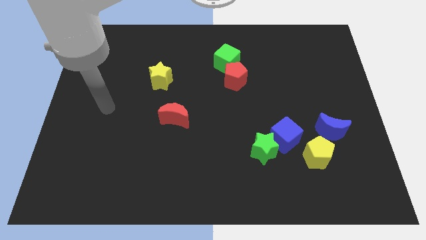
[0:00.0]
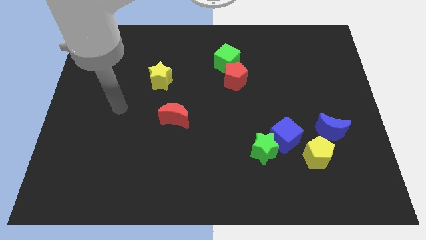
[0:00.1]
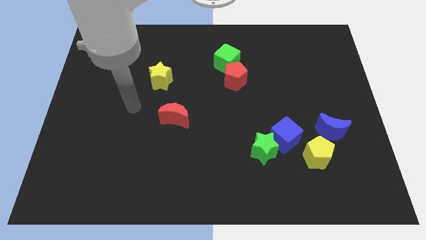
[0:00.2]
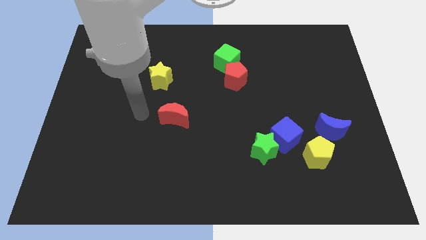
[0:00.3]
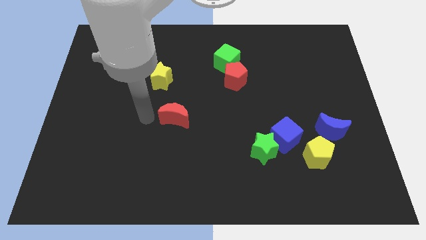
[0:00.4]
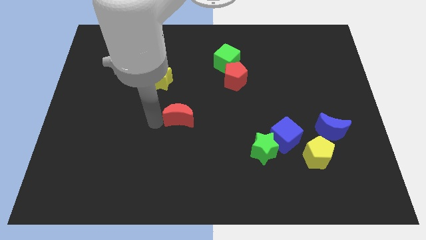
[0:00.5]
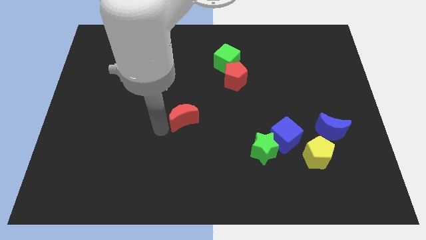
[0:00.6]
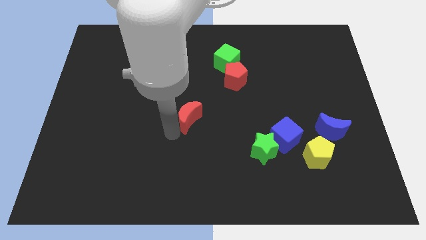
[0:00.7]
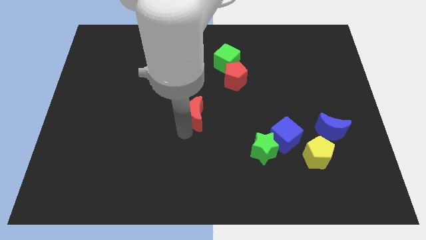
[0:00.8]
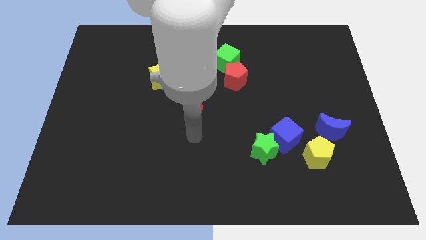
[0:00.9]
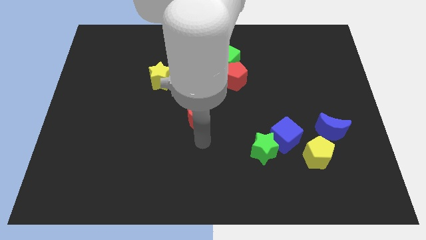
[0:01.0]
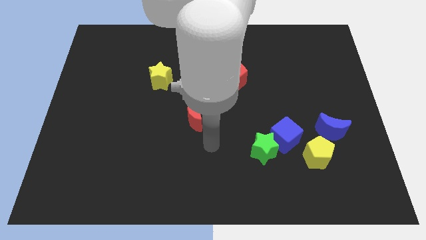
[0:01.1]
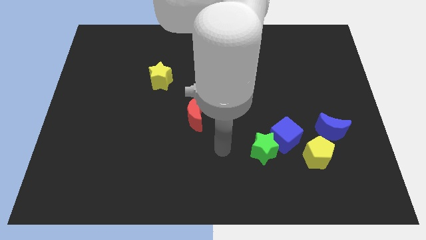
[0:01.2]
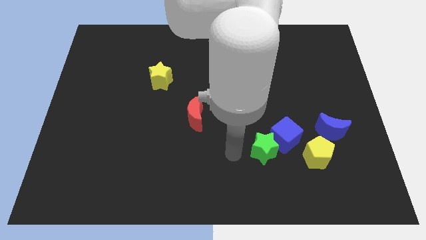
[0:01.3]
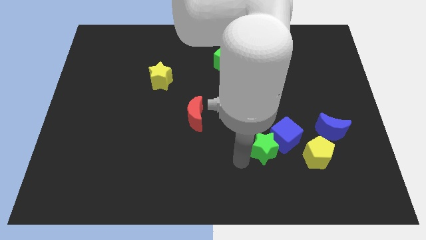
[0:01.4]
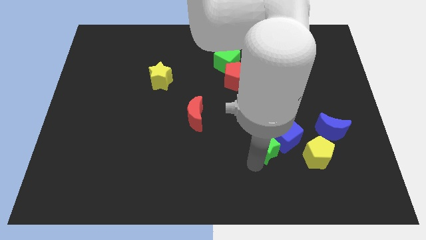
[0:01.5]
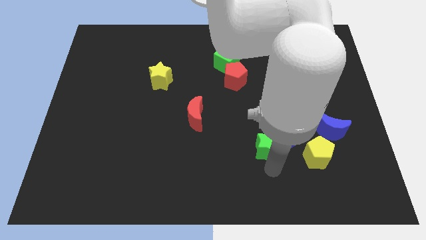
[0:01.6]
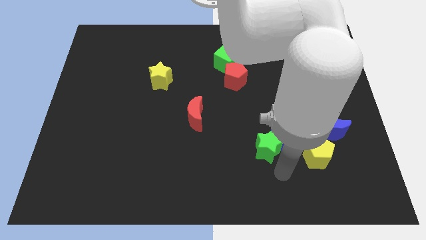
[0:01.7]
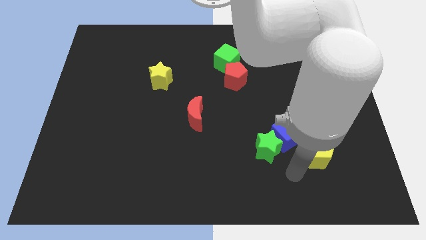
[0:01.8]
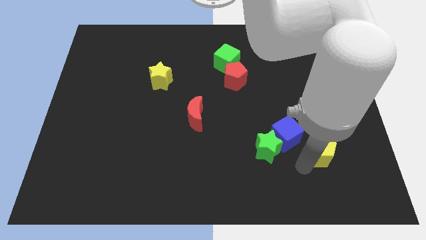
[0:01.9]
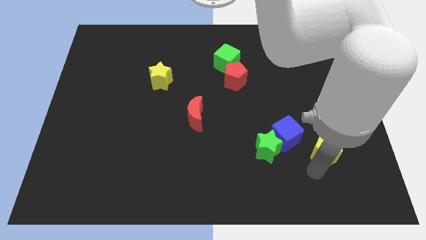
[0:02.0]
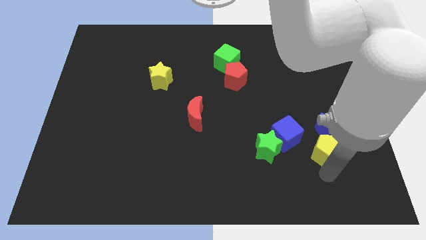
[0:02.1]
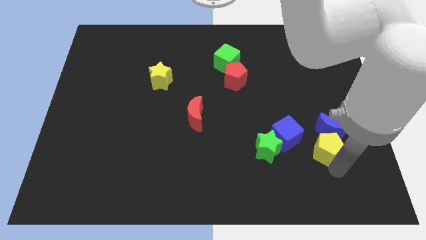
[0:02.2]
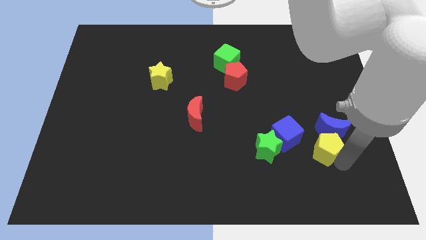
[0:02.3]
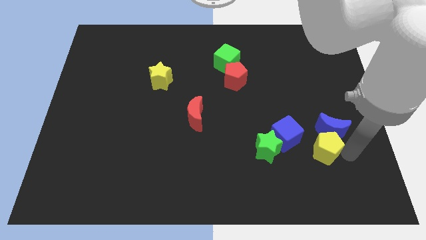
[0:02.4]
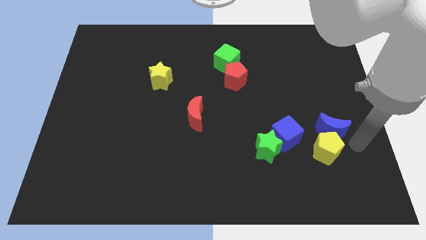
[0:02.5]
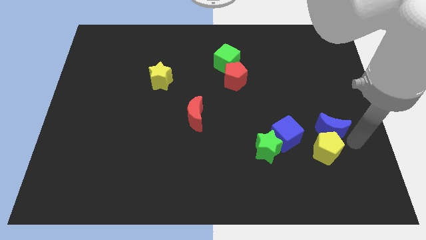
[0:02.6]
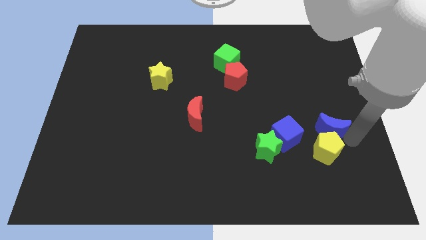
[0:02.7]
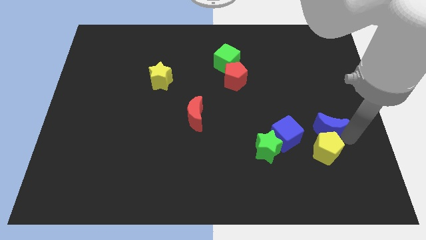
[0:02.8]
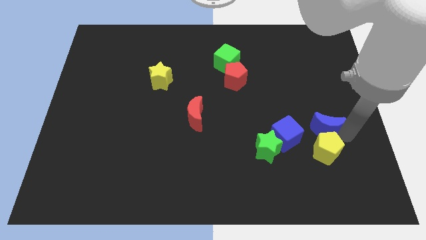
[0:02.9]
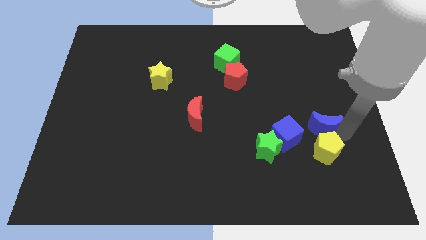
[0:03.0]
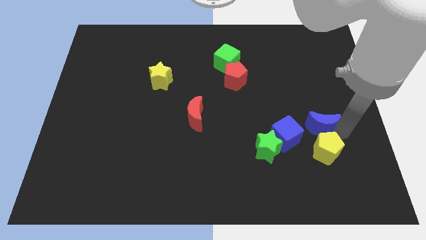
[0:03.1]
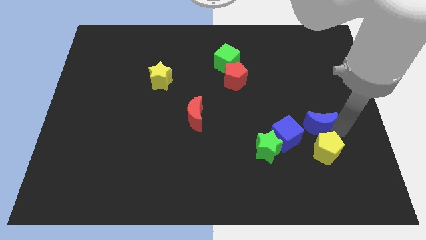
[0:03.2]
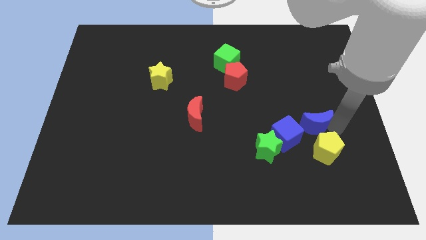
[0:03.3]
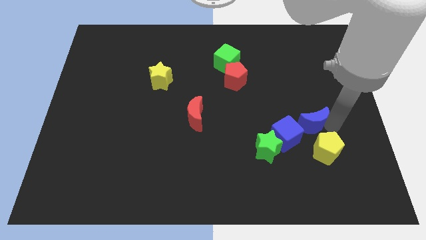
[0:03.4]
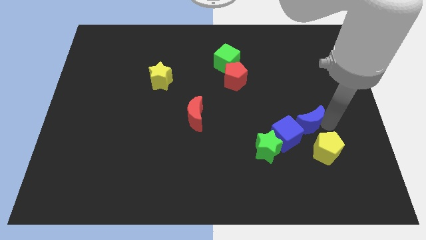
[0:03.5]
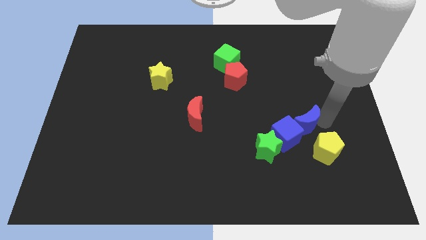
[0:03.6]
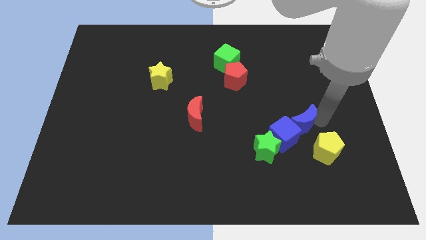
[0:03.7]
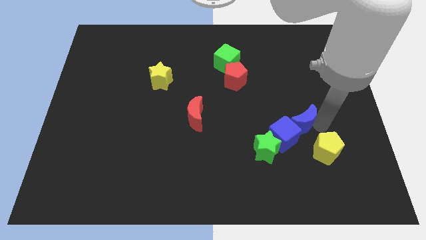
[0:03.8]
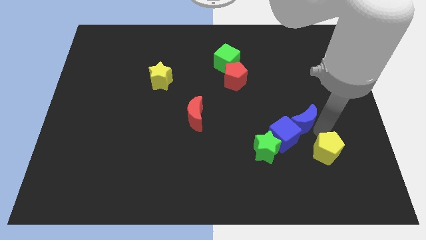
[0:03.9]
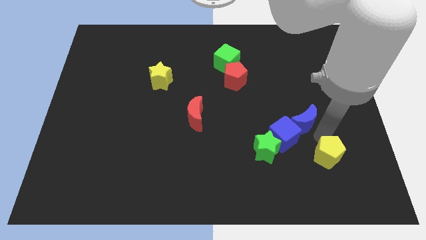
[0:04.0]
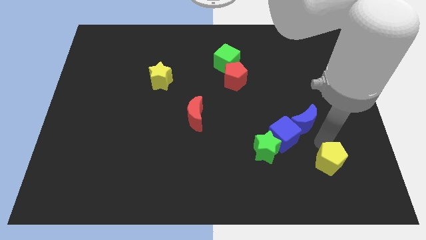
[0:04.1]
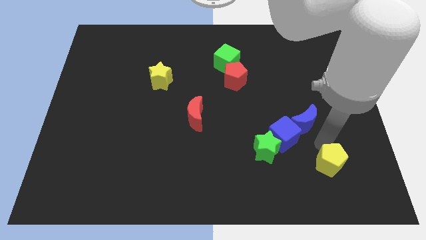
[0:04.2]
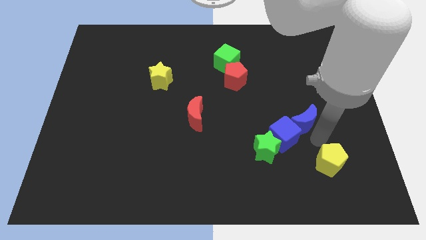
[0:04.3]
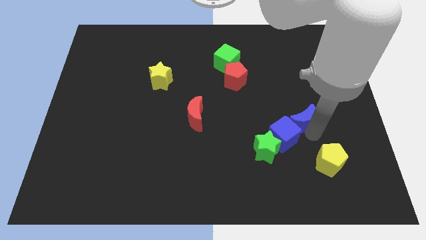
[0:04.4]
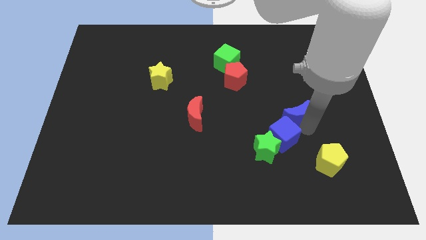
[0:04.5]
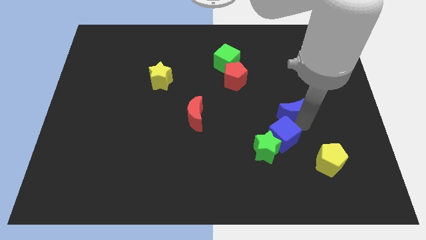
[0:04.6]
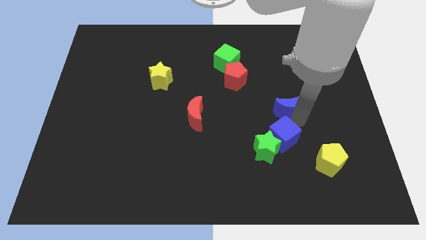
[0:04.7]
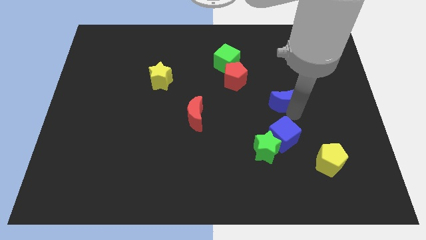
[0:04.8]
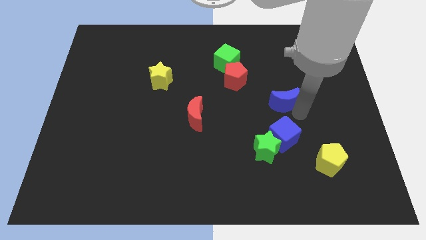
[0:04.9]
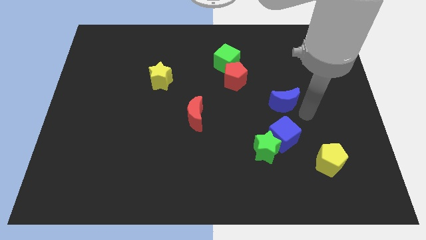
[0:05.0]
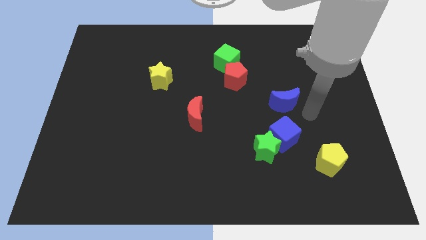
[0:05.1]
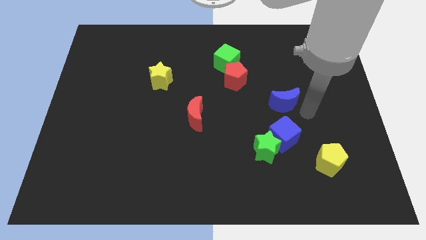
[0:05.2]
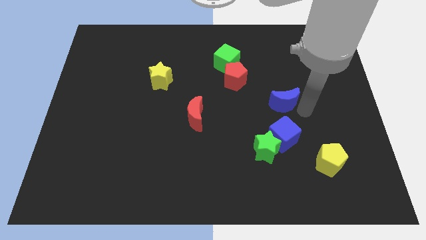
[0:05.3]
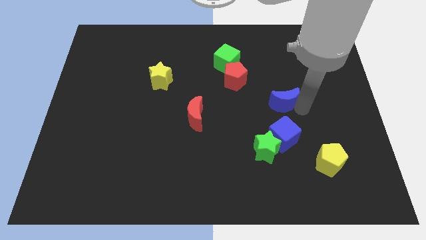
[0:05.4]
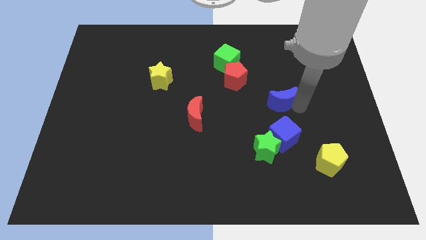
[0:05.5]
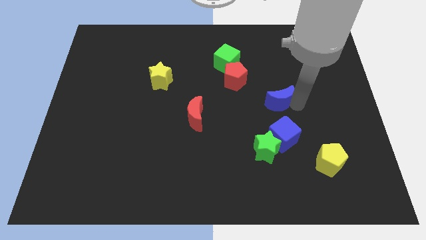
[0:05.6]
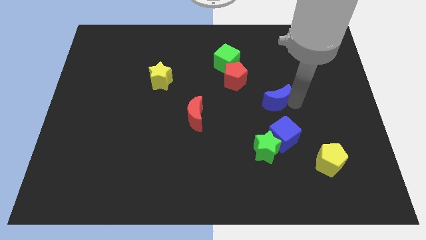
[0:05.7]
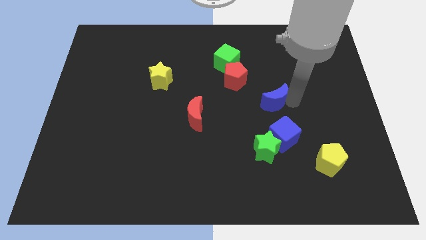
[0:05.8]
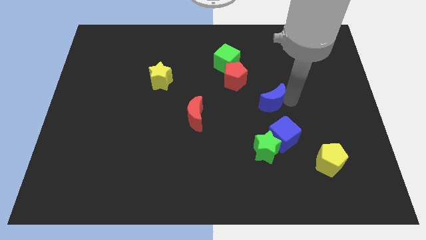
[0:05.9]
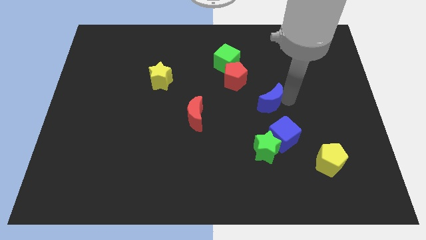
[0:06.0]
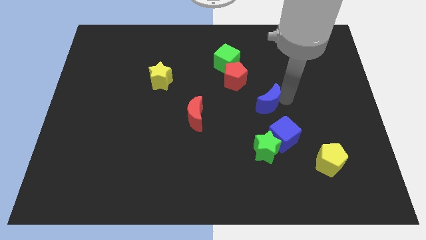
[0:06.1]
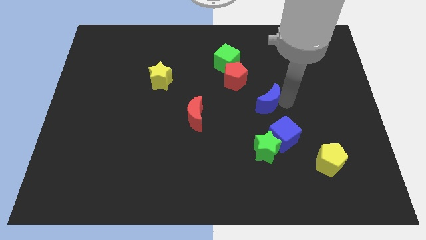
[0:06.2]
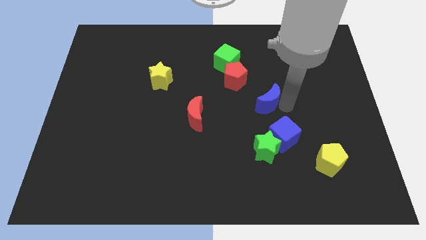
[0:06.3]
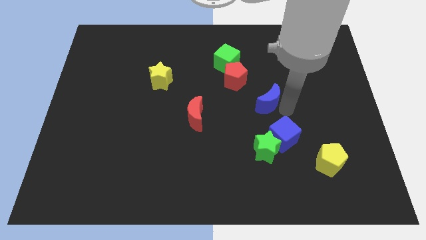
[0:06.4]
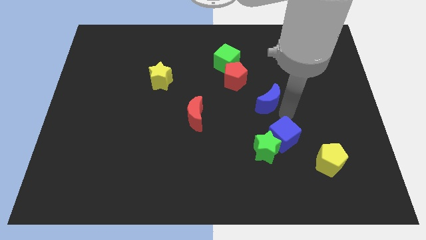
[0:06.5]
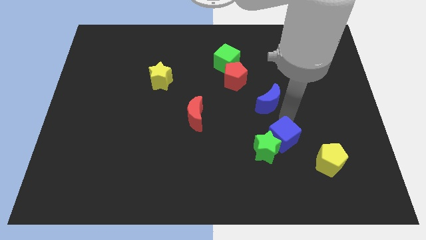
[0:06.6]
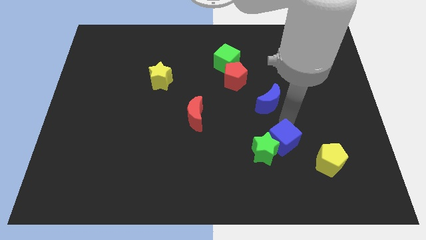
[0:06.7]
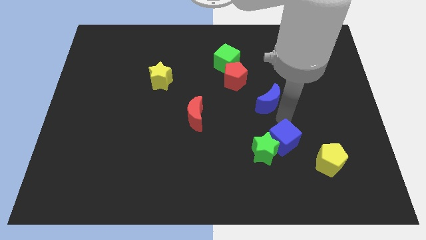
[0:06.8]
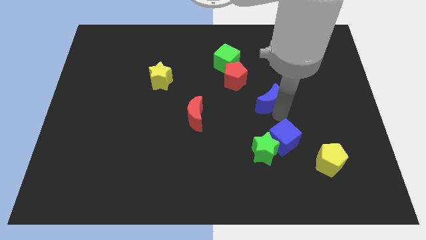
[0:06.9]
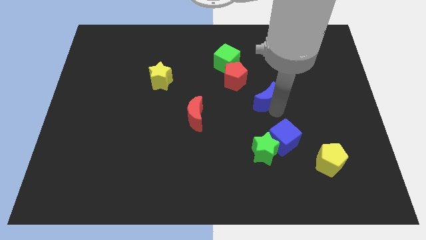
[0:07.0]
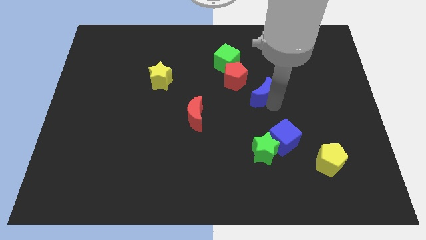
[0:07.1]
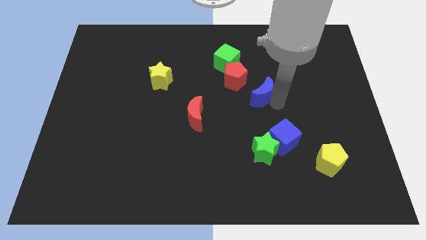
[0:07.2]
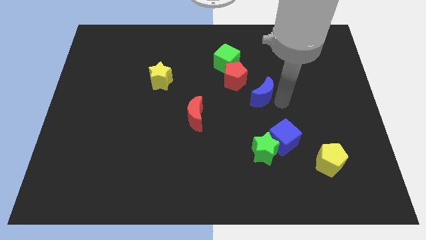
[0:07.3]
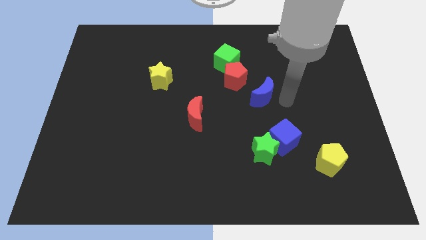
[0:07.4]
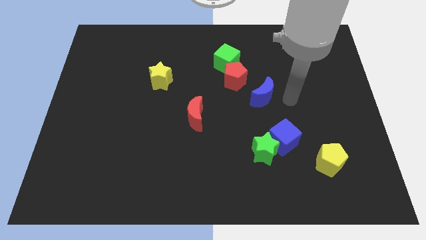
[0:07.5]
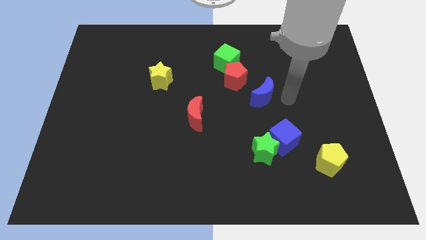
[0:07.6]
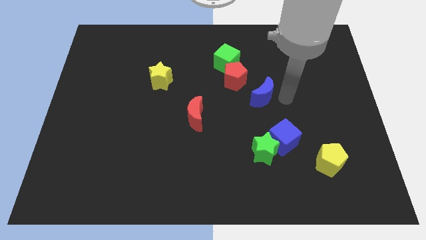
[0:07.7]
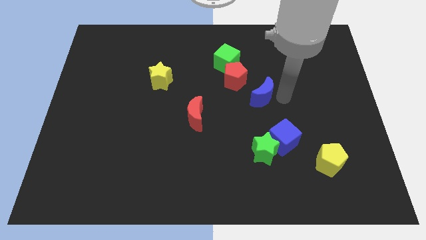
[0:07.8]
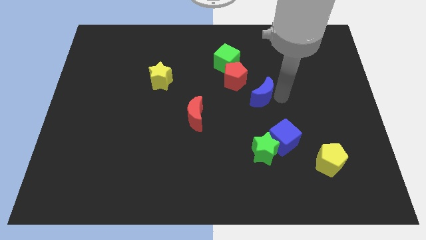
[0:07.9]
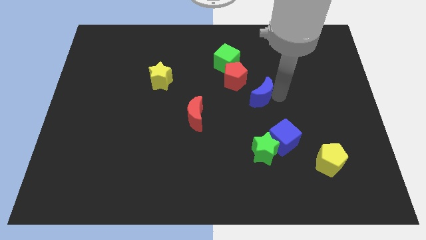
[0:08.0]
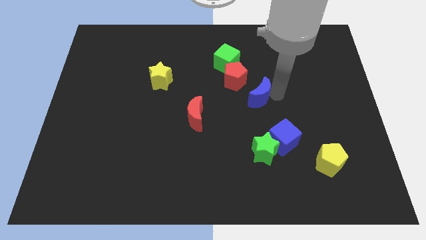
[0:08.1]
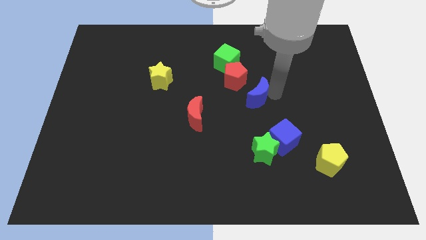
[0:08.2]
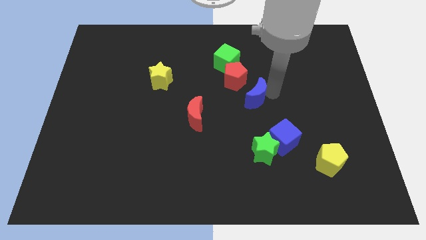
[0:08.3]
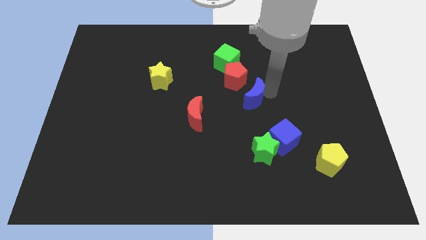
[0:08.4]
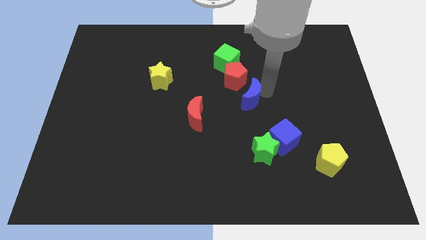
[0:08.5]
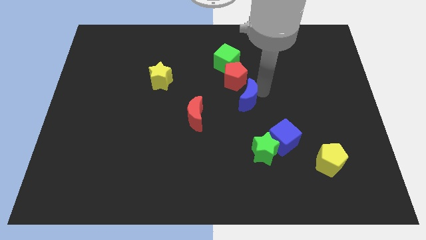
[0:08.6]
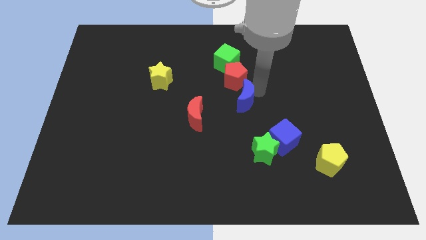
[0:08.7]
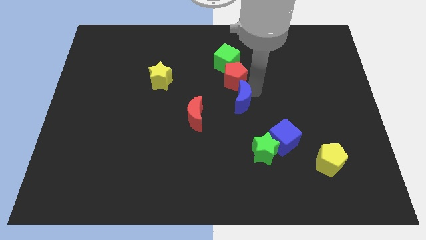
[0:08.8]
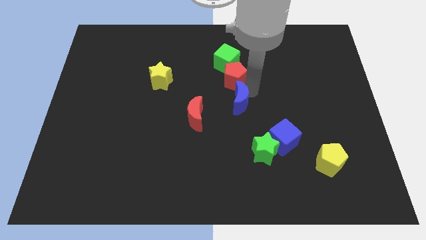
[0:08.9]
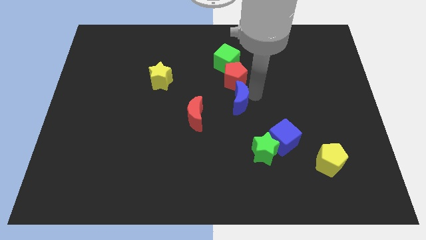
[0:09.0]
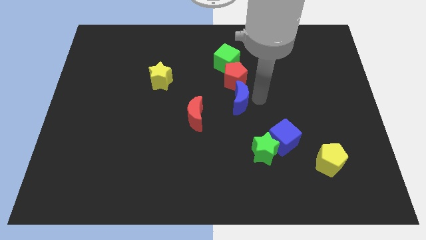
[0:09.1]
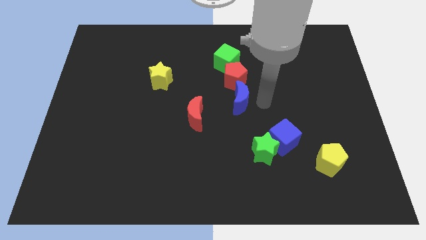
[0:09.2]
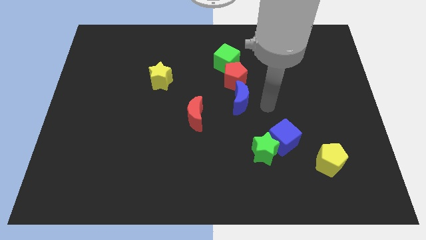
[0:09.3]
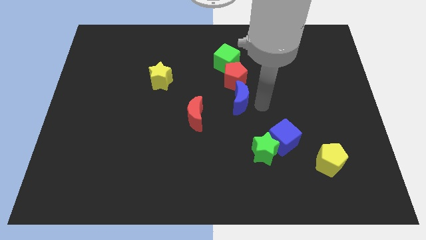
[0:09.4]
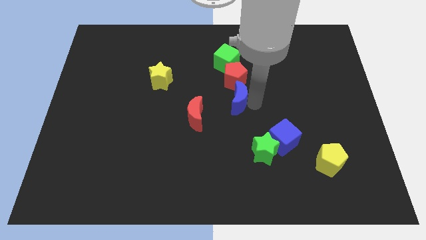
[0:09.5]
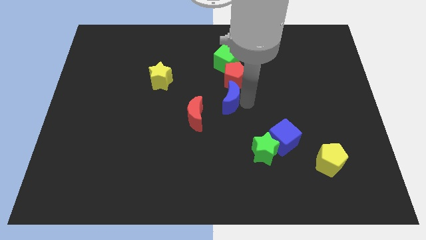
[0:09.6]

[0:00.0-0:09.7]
slide the blue moon to the bottom left side of the red pentagon
